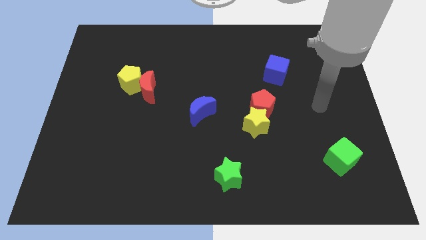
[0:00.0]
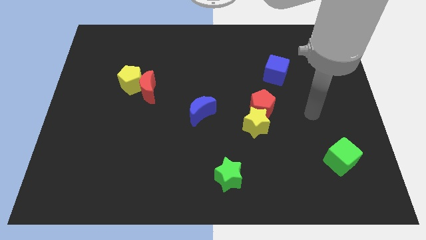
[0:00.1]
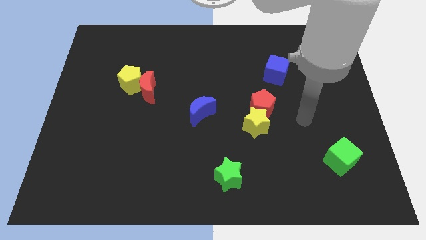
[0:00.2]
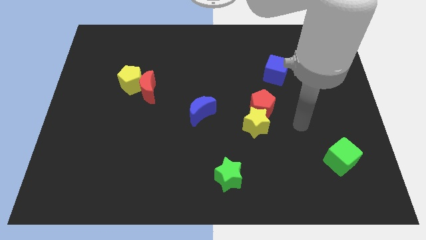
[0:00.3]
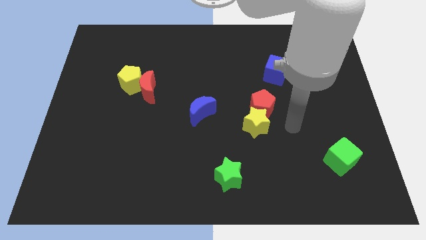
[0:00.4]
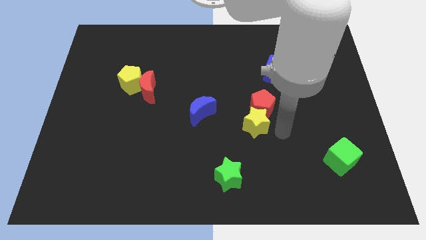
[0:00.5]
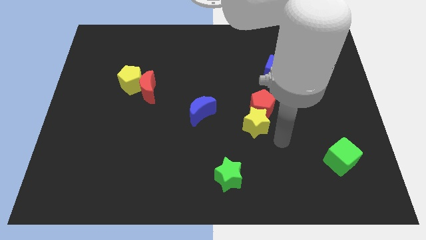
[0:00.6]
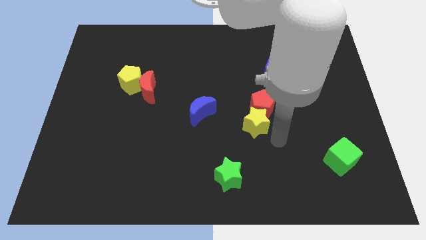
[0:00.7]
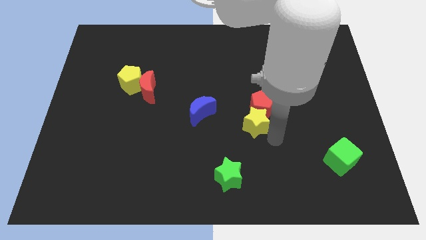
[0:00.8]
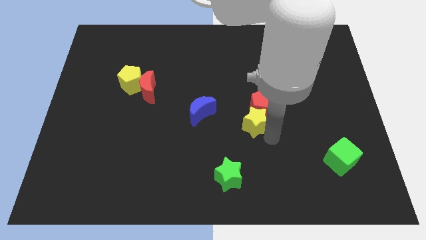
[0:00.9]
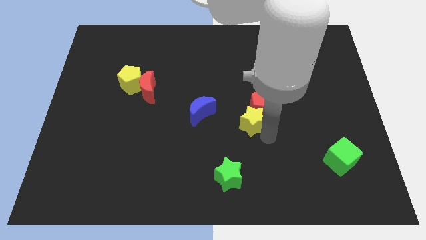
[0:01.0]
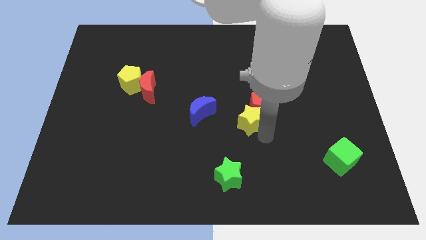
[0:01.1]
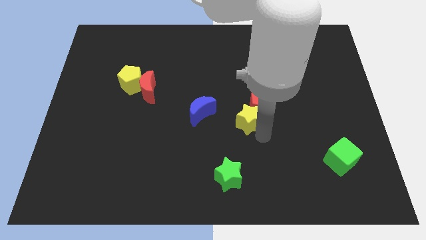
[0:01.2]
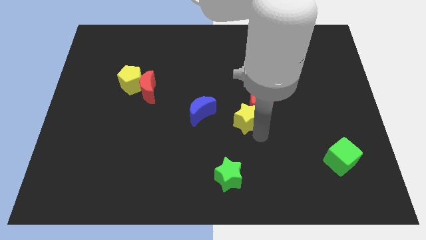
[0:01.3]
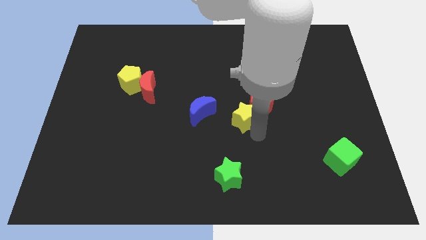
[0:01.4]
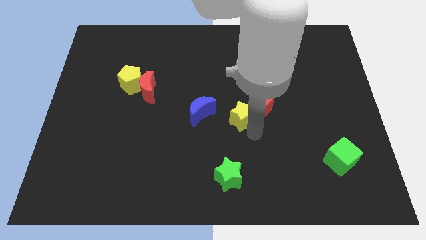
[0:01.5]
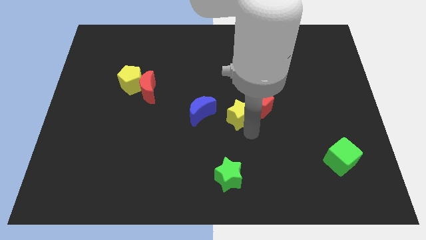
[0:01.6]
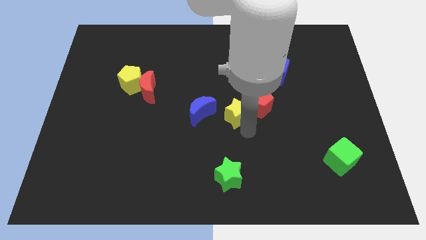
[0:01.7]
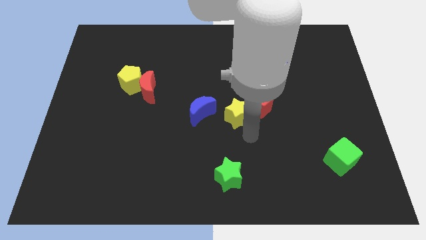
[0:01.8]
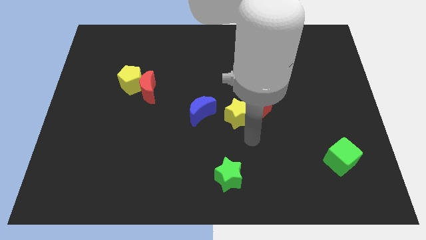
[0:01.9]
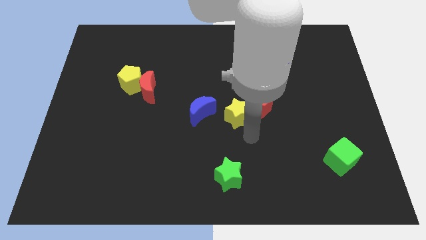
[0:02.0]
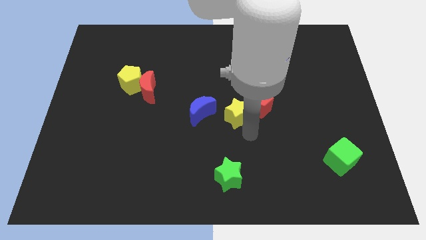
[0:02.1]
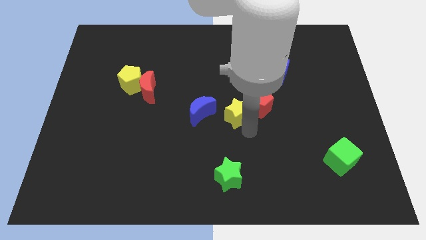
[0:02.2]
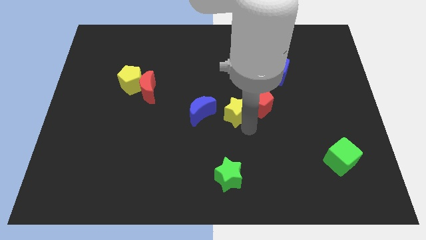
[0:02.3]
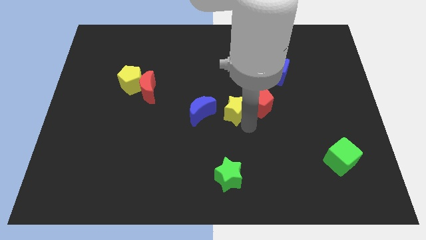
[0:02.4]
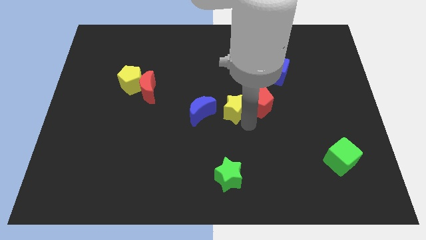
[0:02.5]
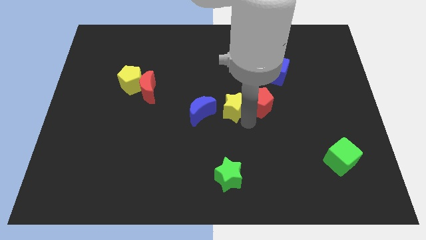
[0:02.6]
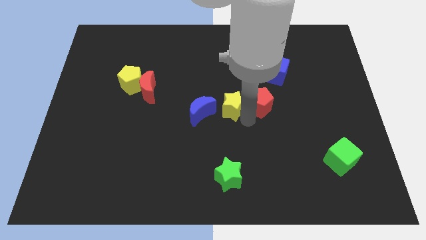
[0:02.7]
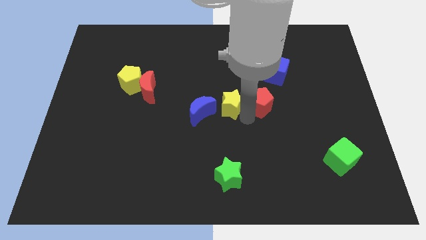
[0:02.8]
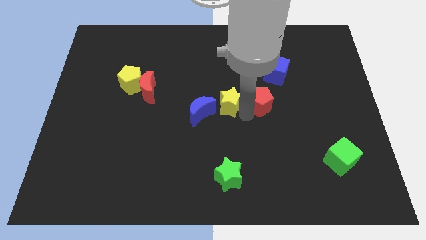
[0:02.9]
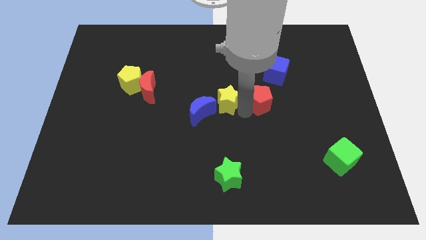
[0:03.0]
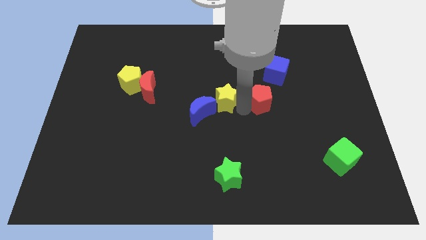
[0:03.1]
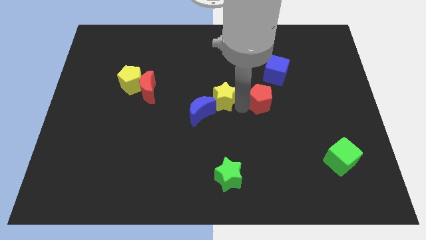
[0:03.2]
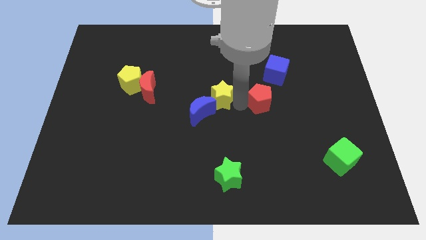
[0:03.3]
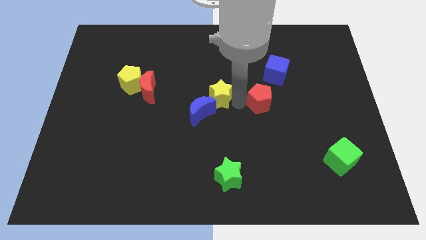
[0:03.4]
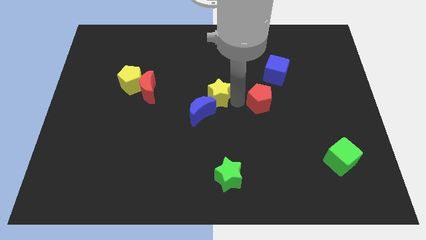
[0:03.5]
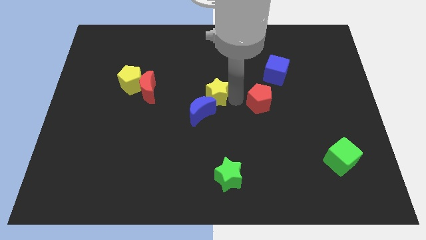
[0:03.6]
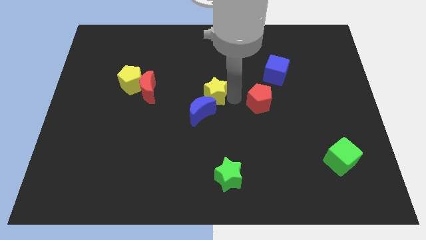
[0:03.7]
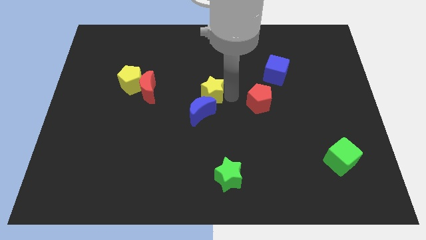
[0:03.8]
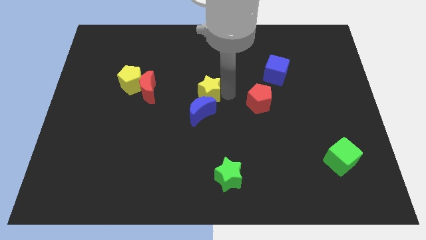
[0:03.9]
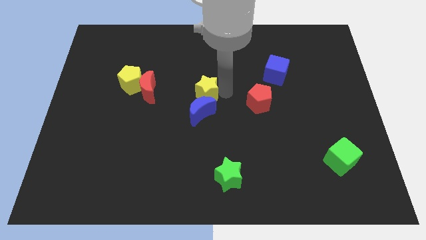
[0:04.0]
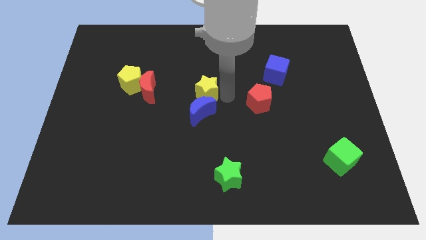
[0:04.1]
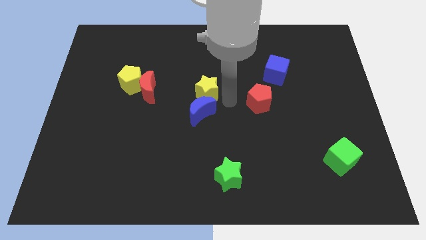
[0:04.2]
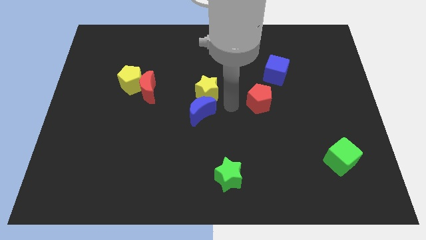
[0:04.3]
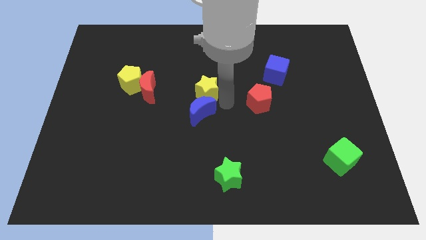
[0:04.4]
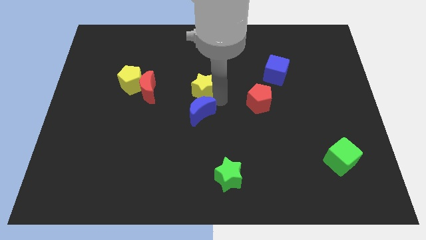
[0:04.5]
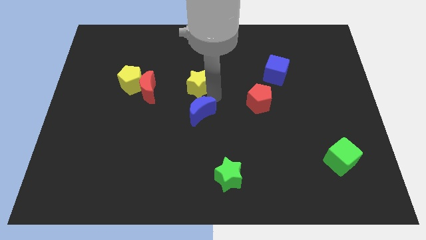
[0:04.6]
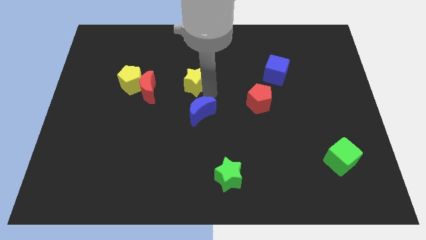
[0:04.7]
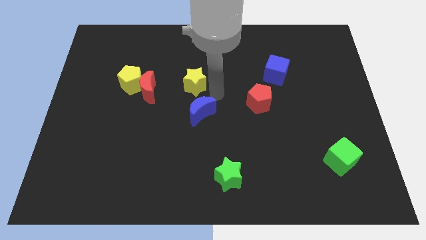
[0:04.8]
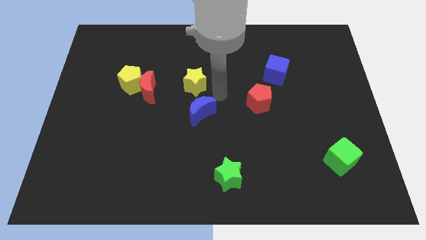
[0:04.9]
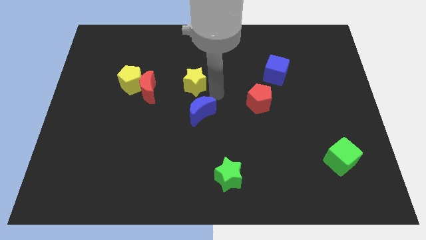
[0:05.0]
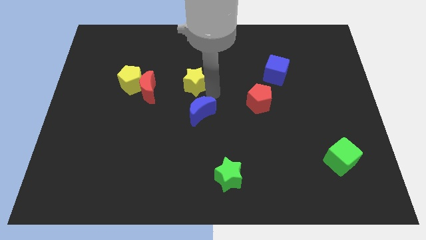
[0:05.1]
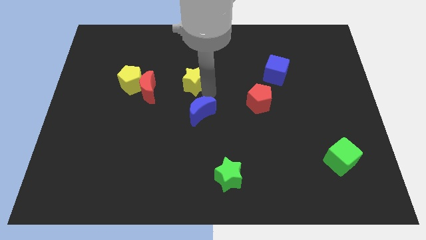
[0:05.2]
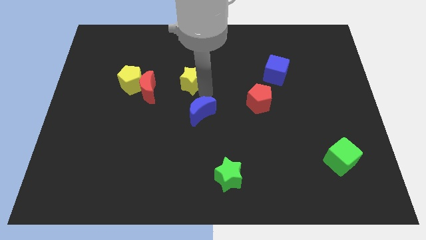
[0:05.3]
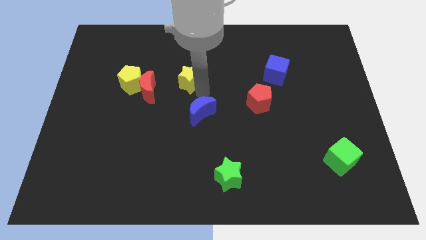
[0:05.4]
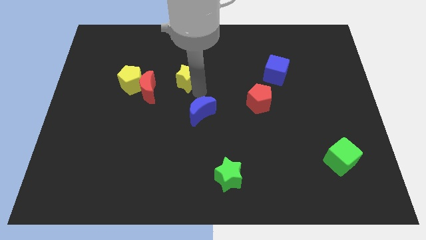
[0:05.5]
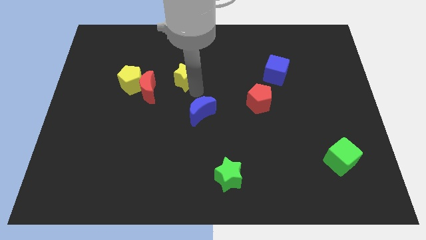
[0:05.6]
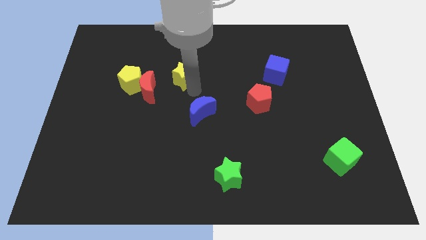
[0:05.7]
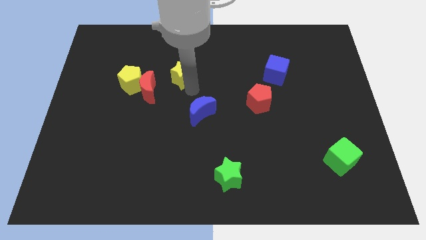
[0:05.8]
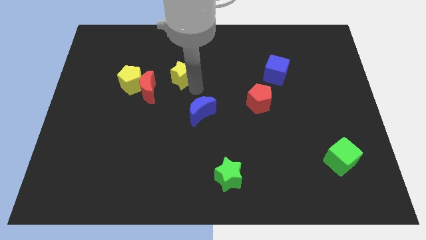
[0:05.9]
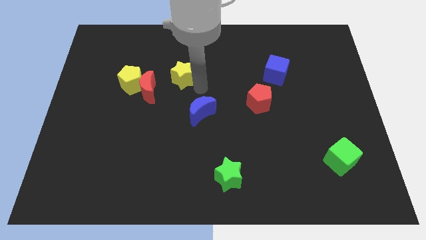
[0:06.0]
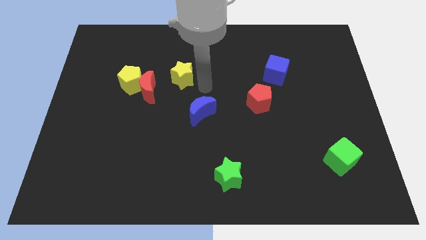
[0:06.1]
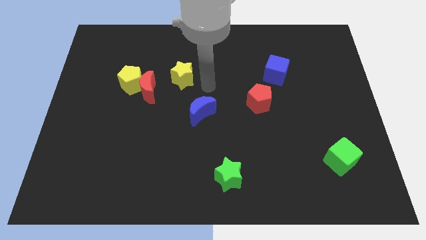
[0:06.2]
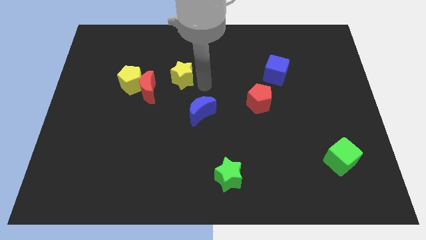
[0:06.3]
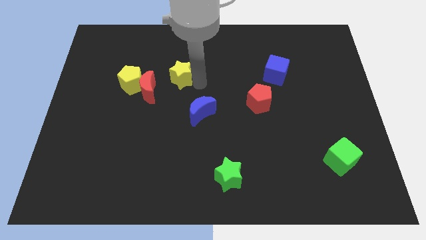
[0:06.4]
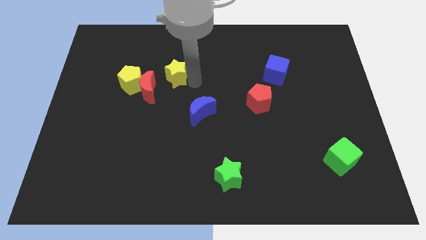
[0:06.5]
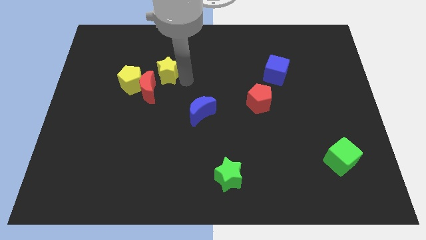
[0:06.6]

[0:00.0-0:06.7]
put the yellow star to the top of the red moon

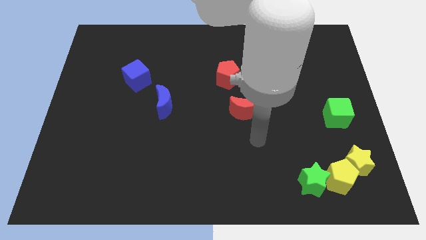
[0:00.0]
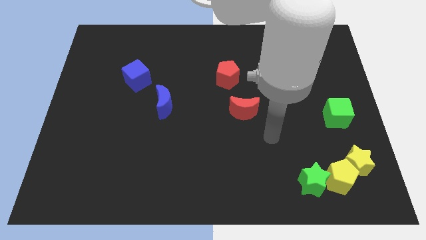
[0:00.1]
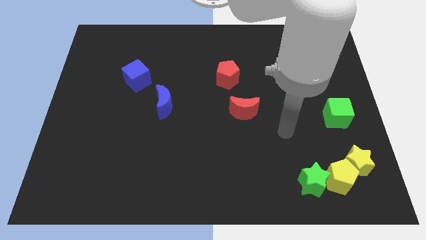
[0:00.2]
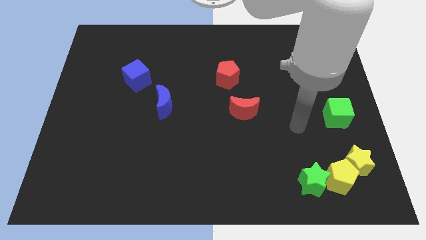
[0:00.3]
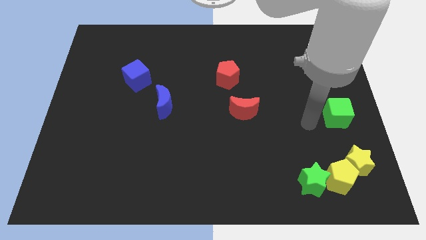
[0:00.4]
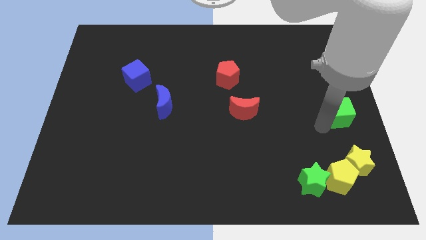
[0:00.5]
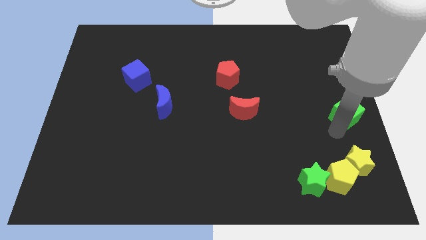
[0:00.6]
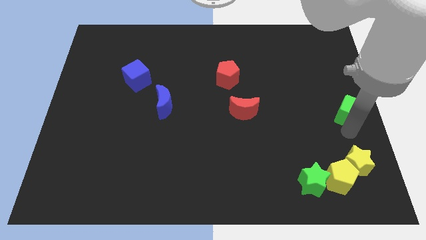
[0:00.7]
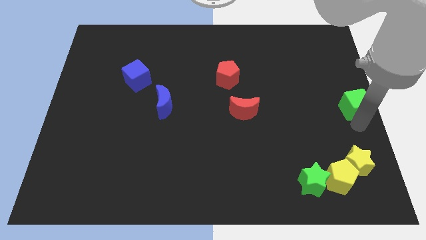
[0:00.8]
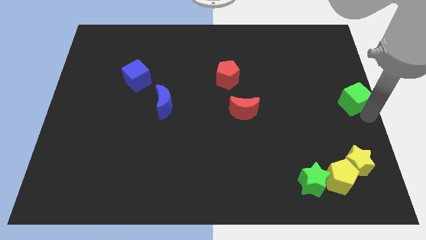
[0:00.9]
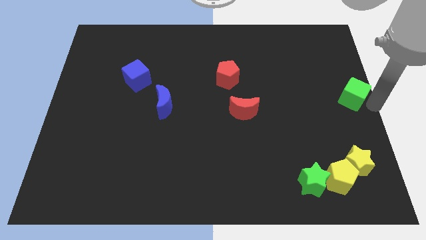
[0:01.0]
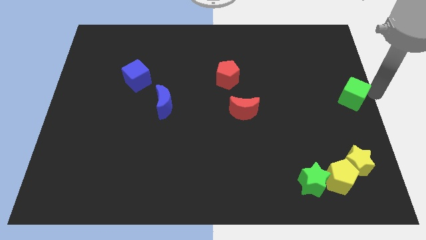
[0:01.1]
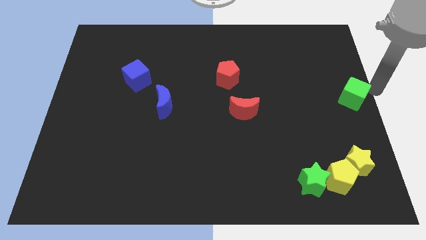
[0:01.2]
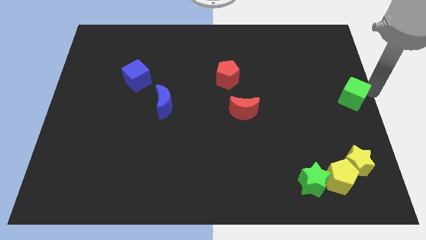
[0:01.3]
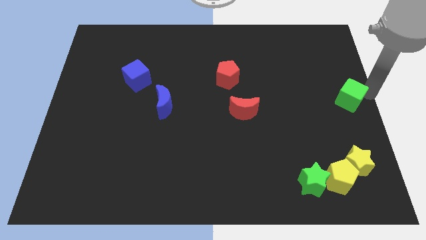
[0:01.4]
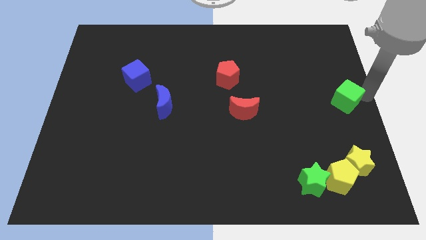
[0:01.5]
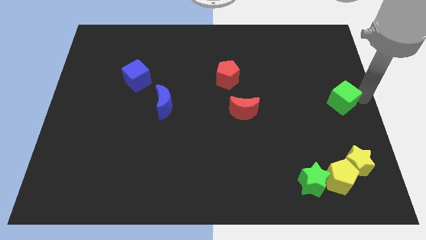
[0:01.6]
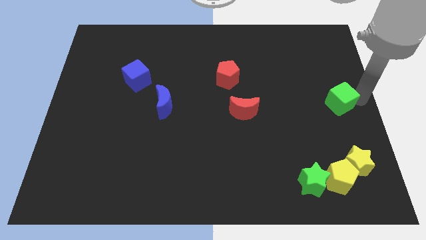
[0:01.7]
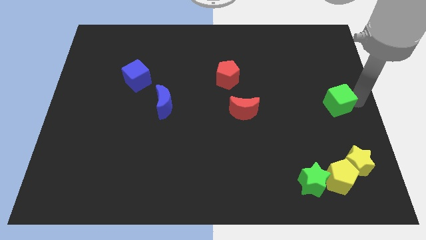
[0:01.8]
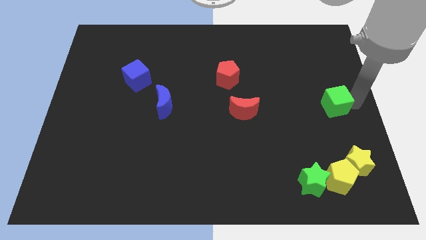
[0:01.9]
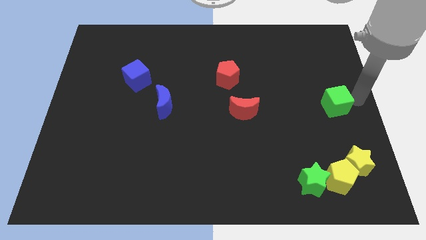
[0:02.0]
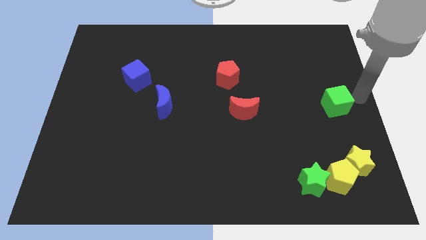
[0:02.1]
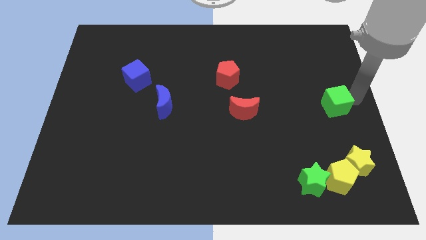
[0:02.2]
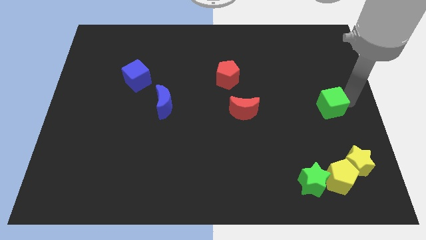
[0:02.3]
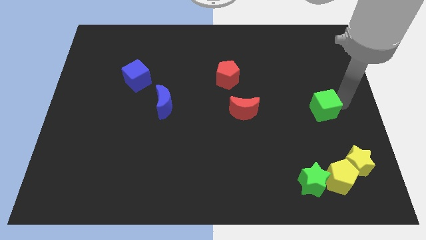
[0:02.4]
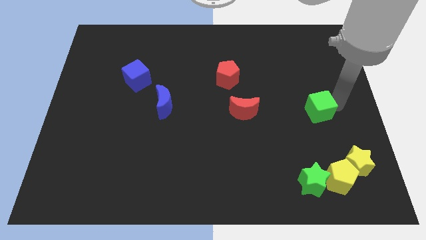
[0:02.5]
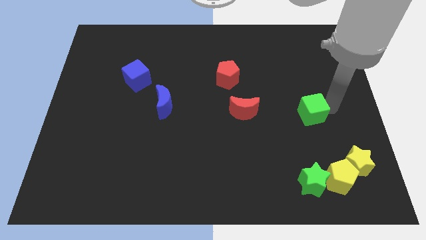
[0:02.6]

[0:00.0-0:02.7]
slide the green cube to the right side of the red moon
